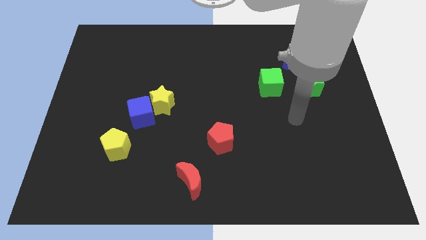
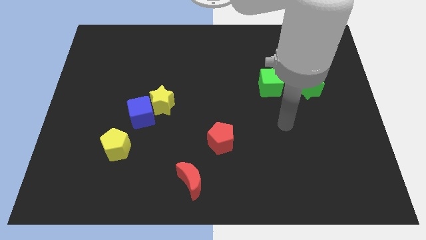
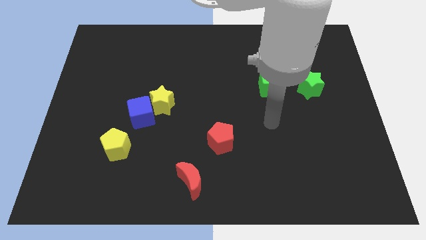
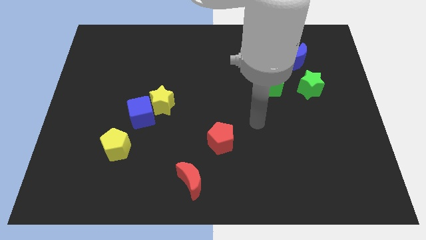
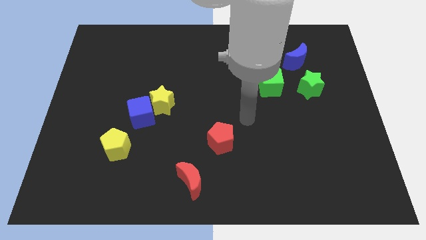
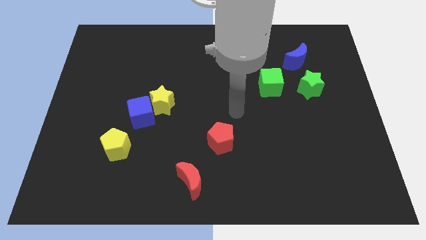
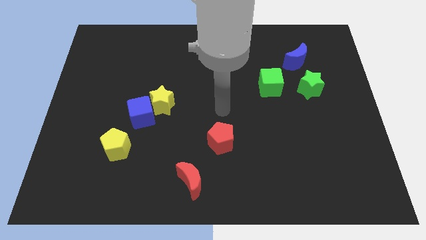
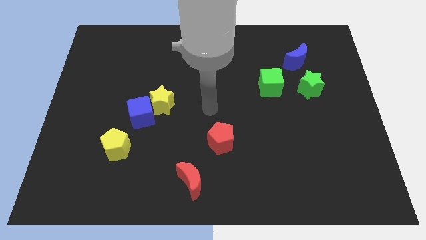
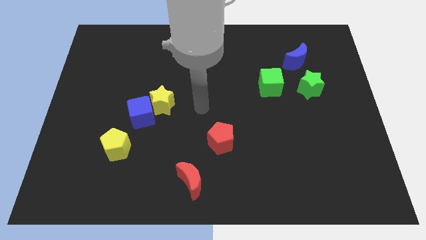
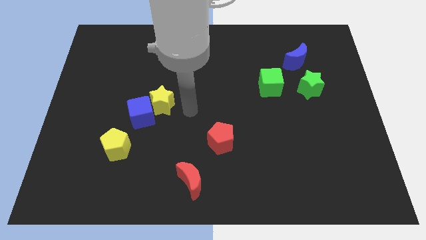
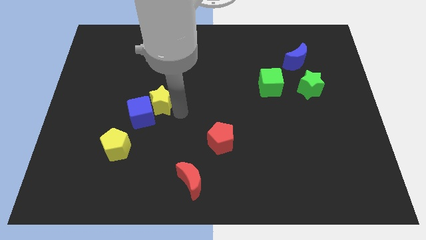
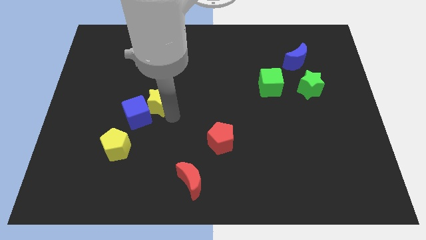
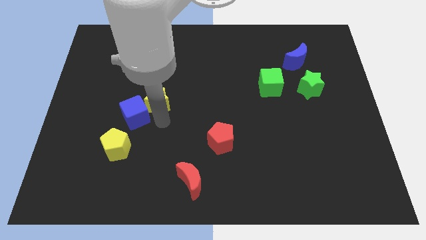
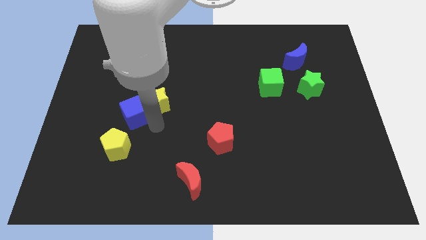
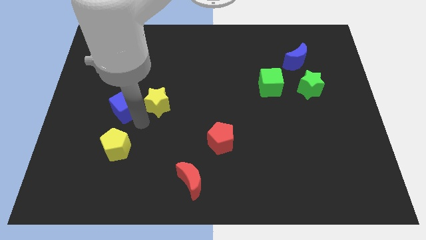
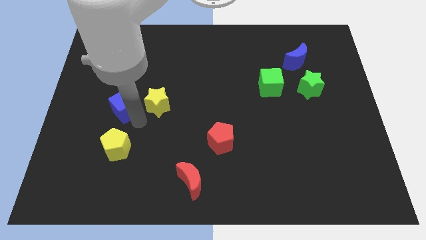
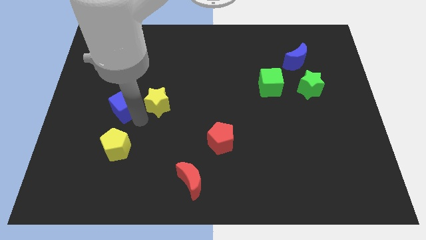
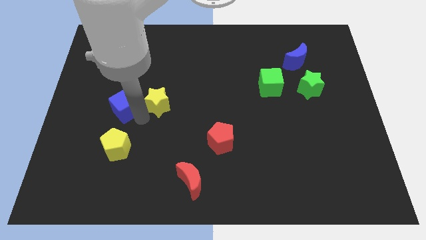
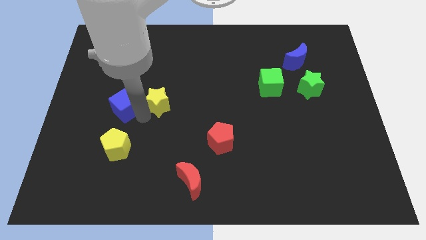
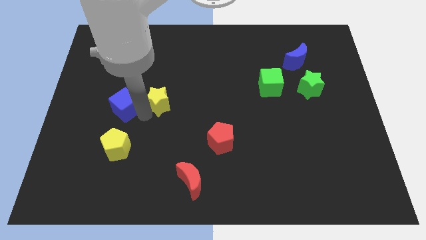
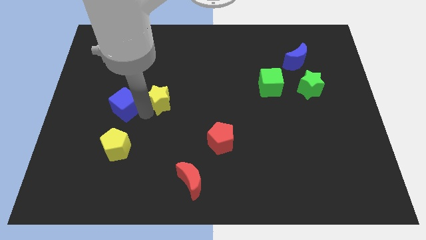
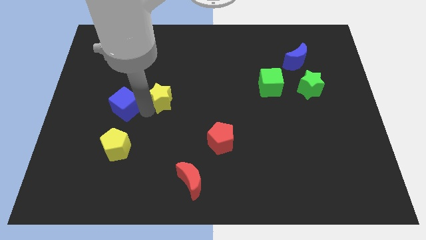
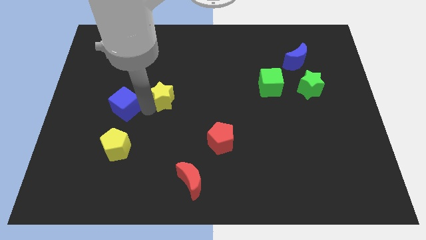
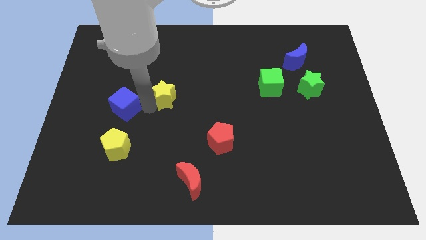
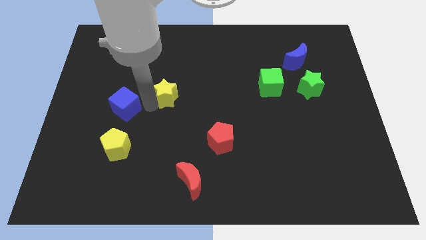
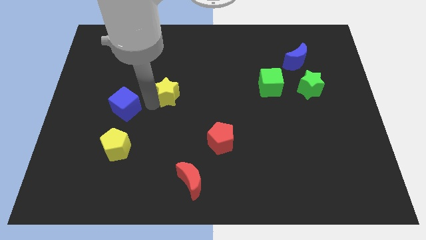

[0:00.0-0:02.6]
pull the yellow star apart from the blue cube

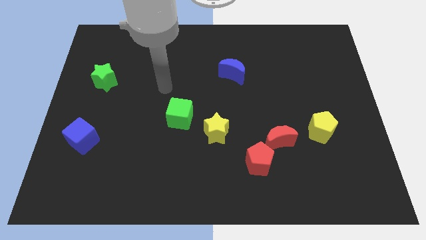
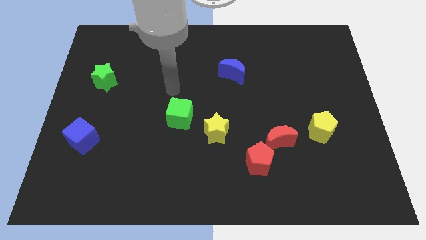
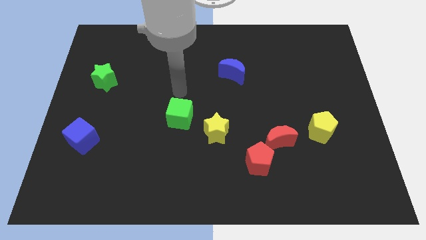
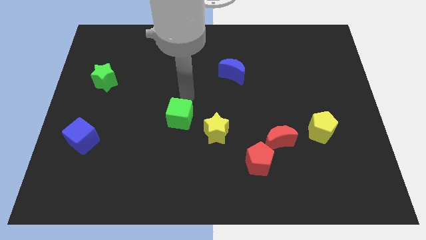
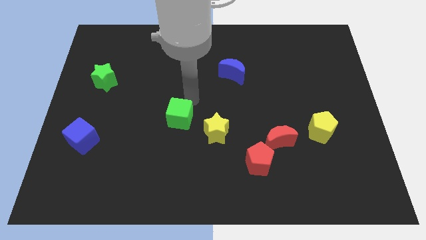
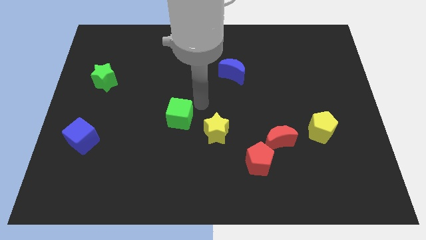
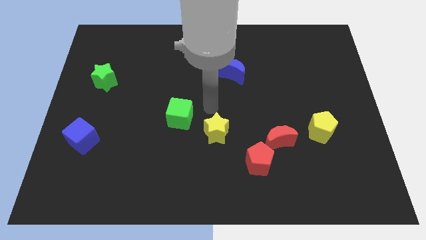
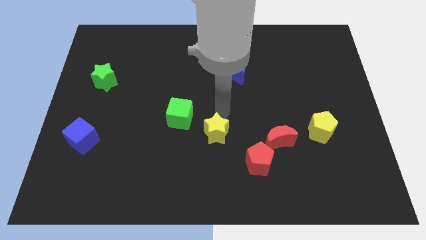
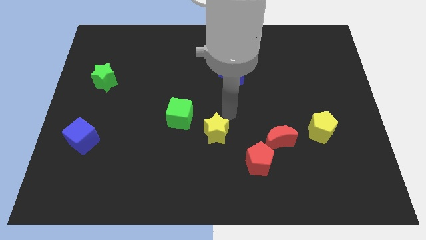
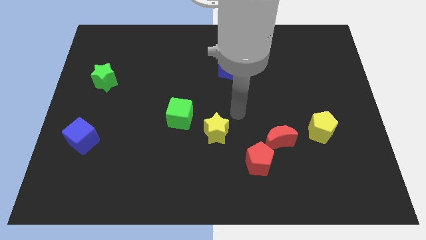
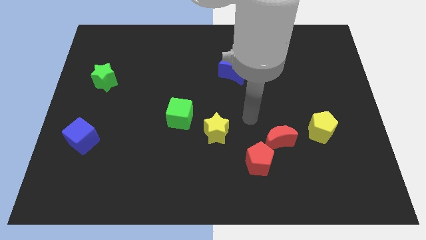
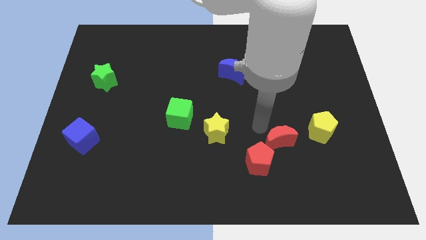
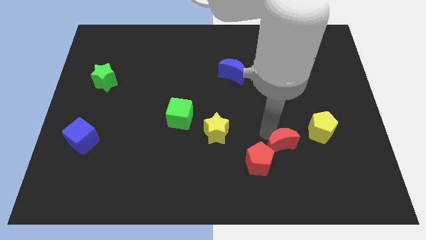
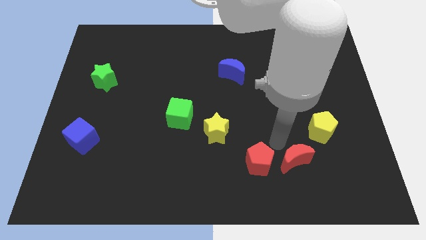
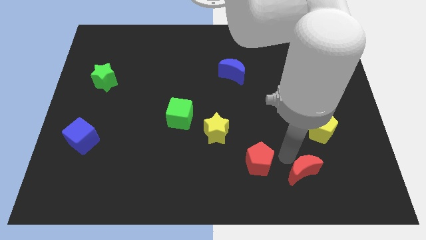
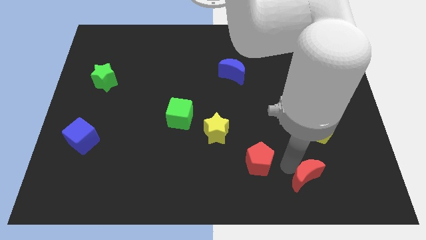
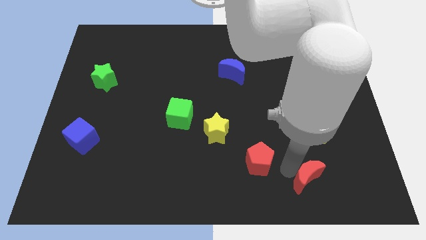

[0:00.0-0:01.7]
move the red pentagon away from the red moon

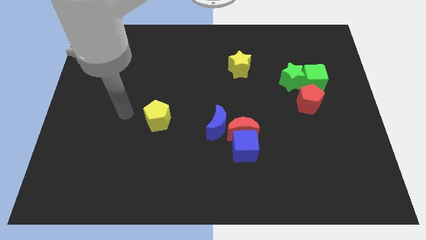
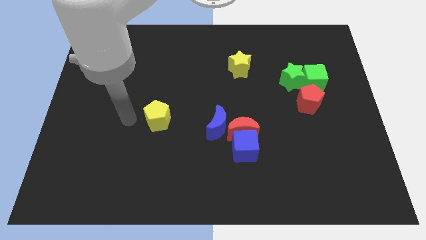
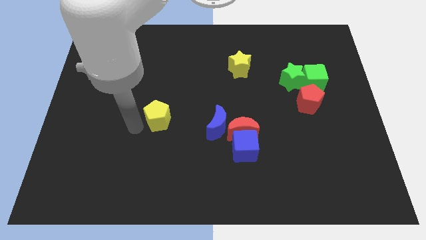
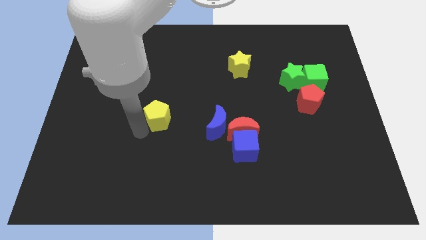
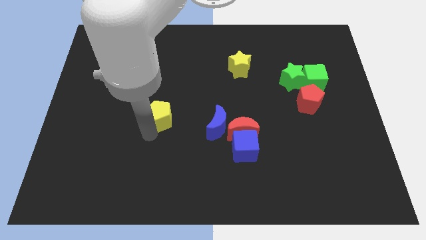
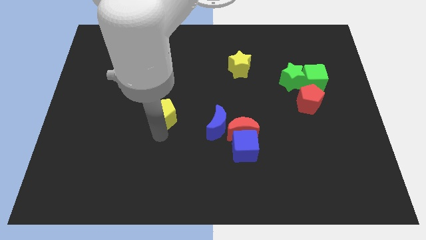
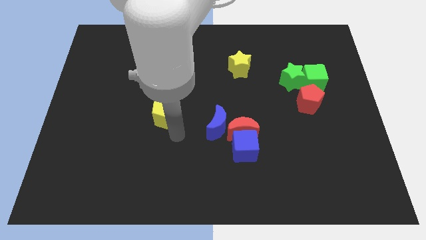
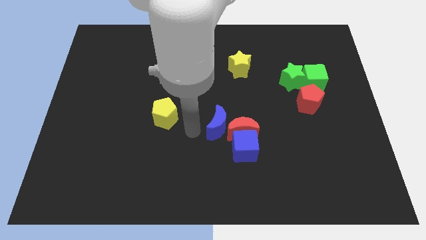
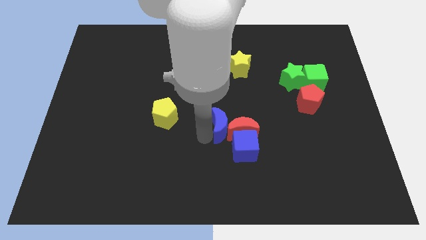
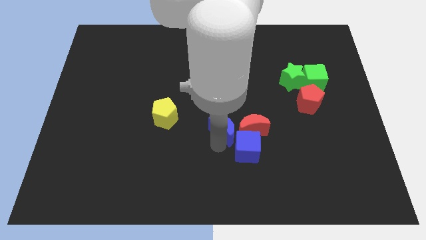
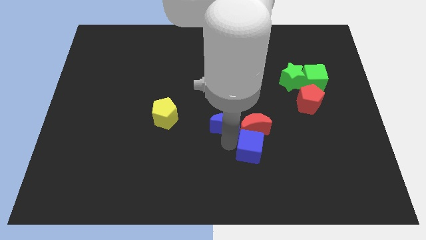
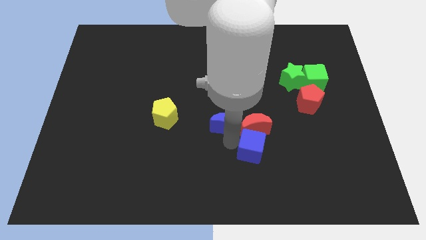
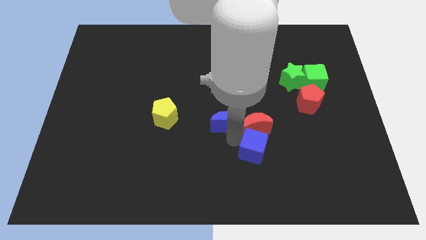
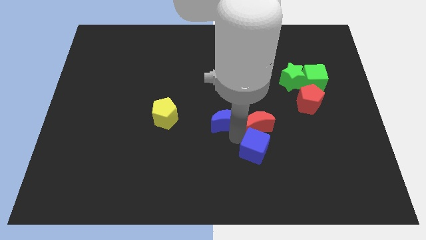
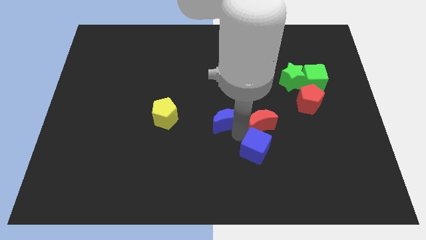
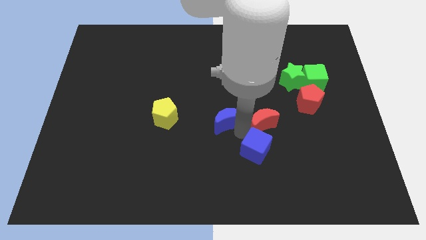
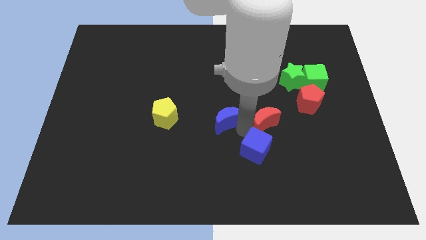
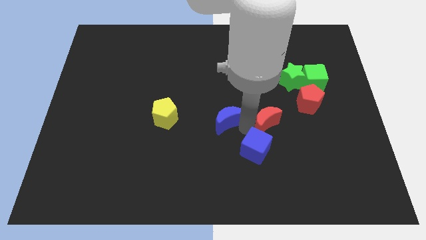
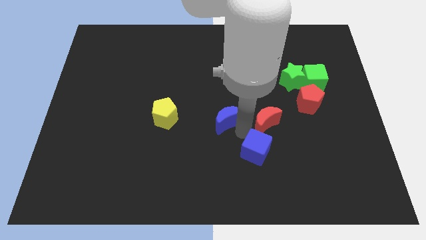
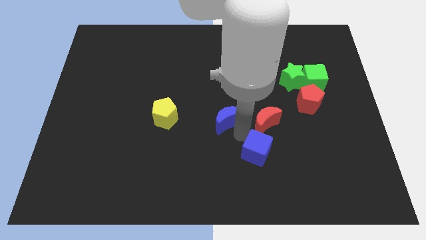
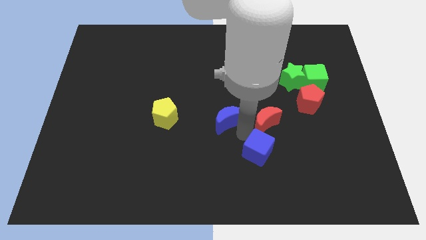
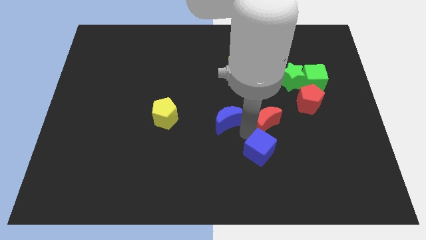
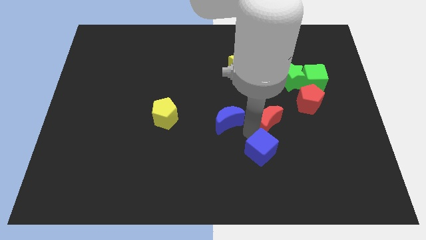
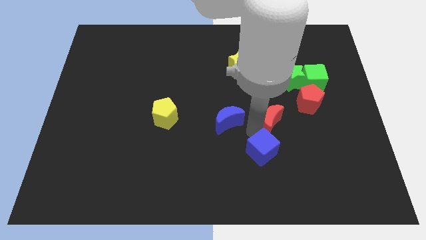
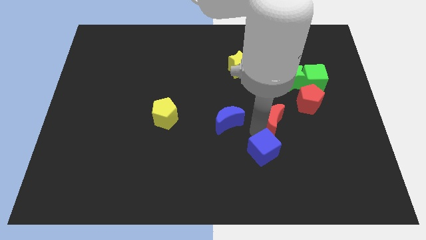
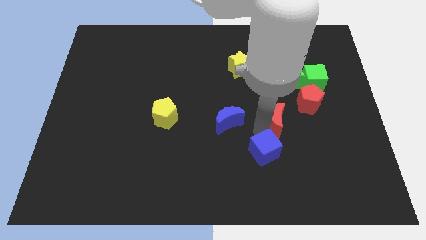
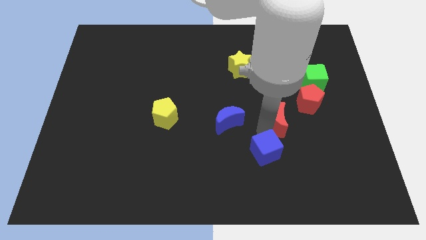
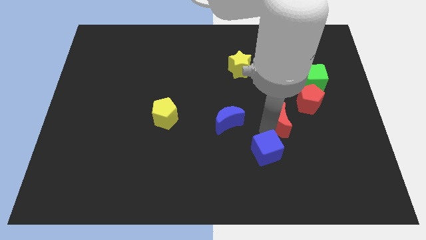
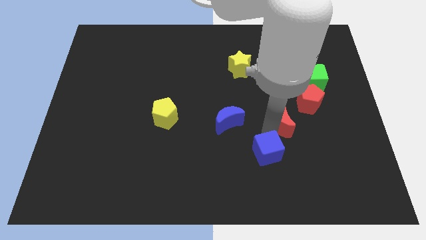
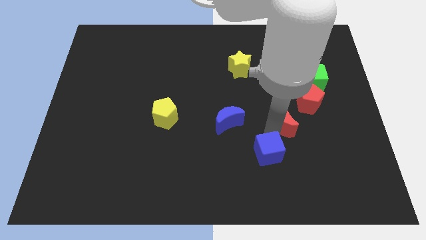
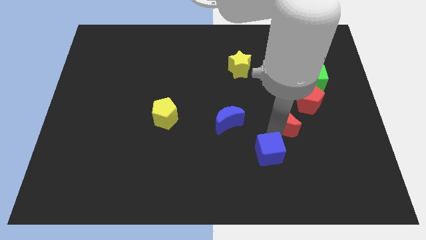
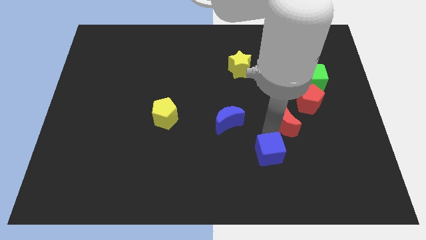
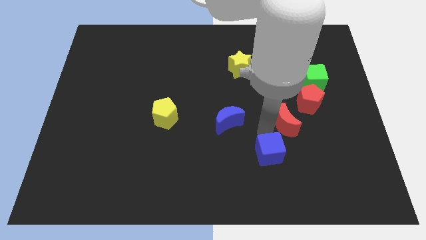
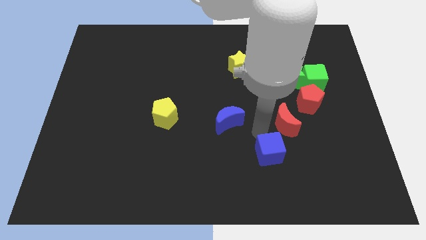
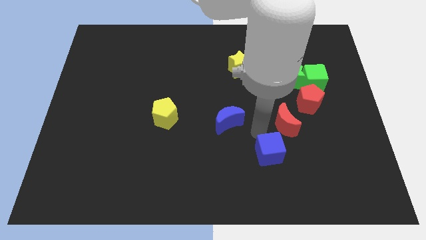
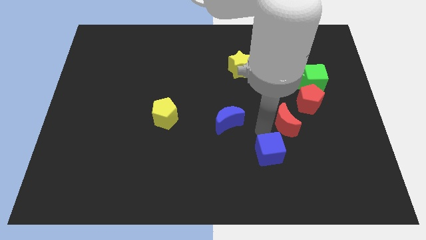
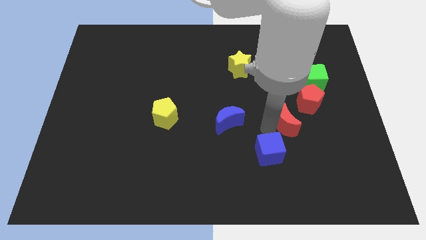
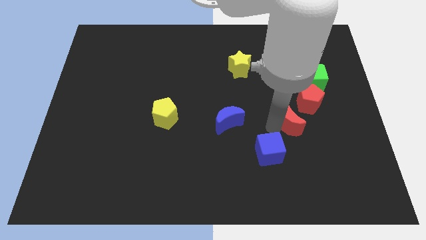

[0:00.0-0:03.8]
pull the red moon apart from the blue cube and blue moon

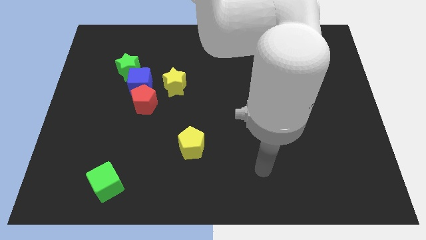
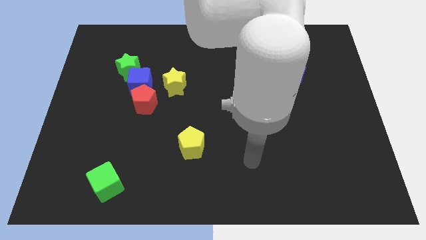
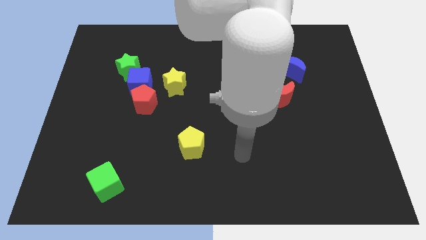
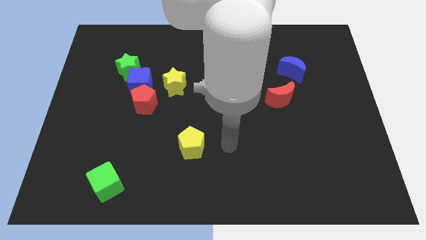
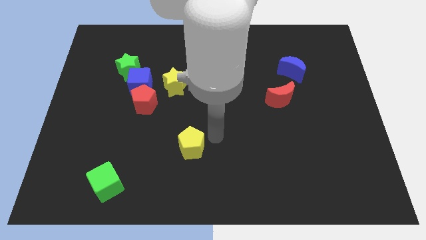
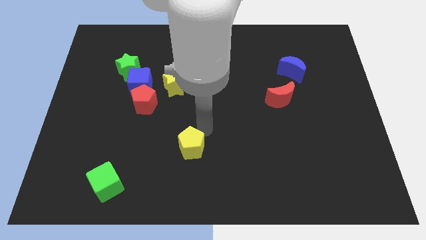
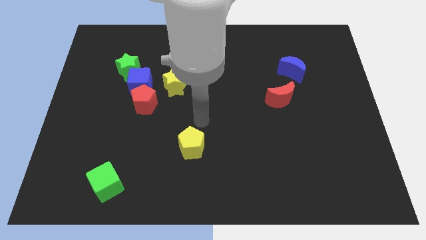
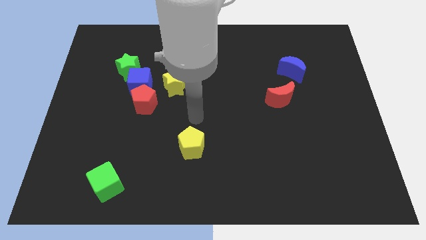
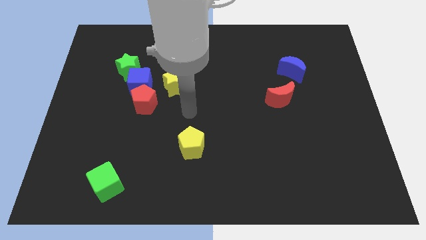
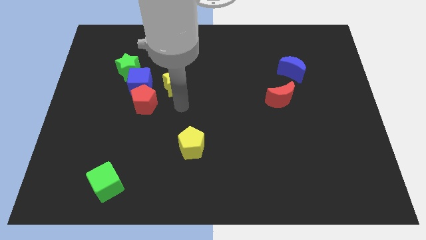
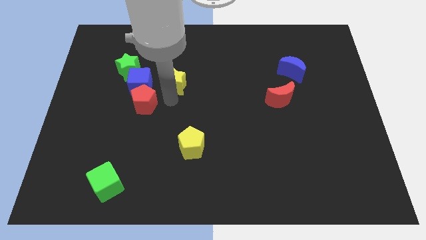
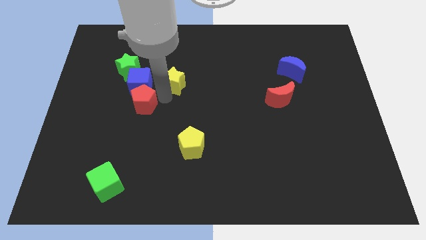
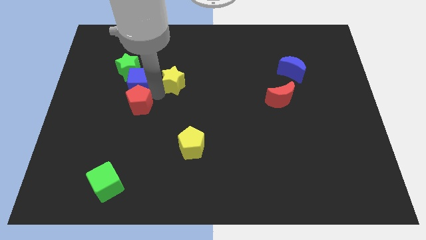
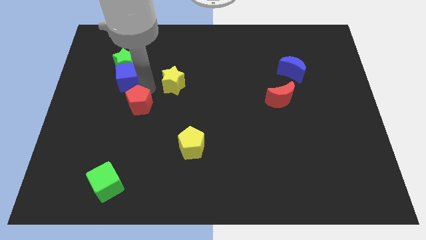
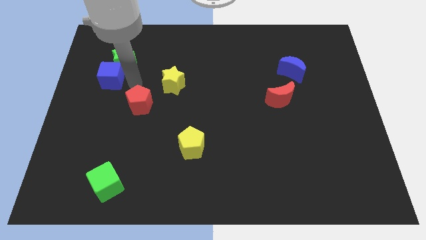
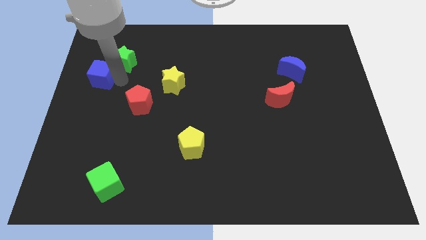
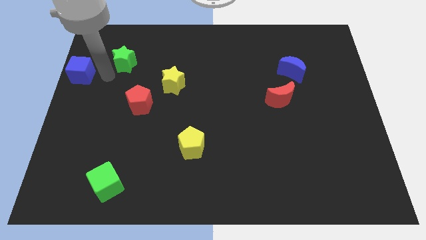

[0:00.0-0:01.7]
move the green star away from the blue cube
